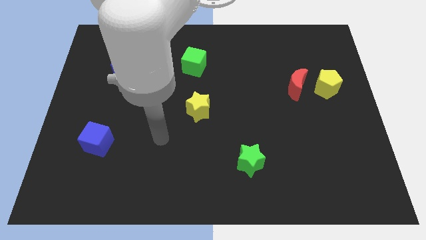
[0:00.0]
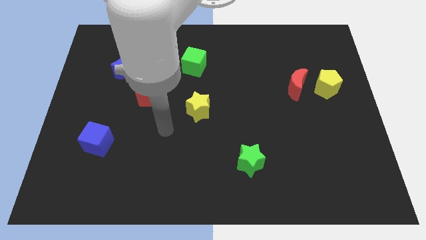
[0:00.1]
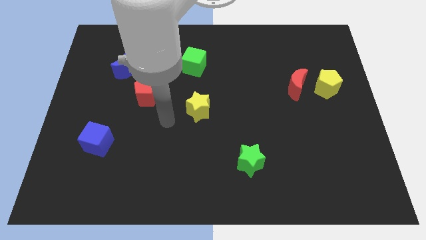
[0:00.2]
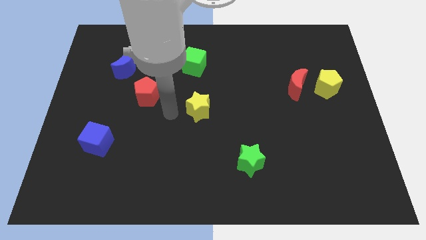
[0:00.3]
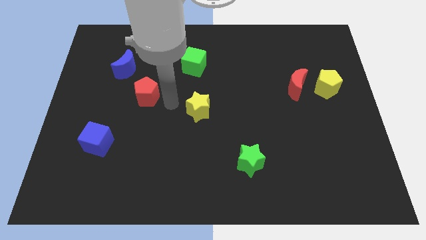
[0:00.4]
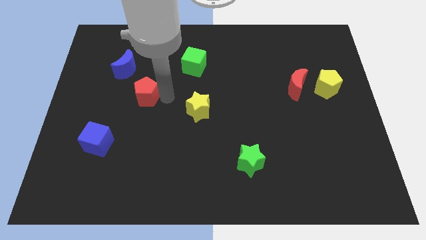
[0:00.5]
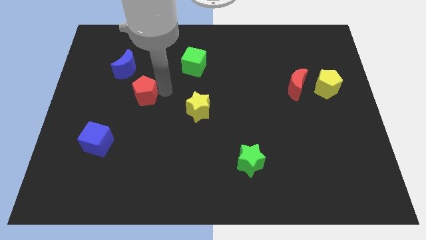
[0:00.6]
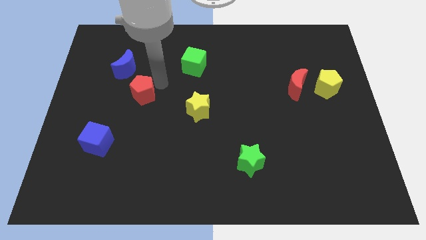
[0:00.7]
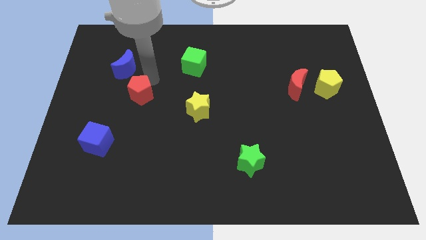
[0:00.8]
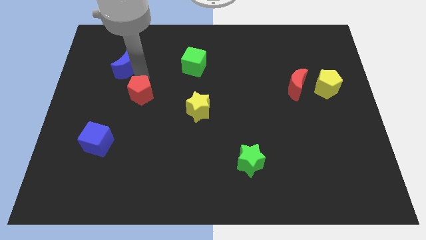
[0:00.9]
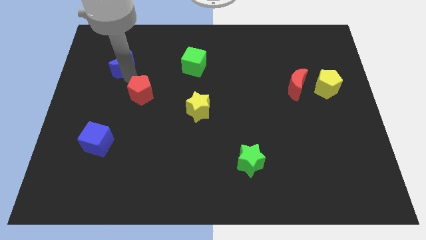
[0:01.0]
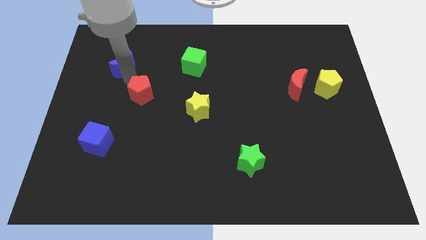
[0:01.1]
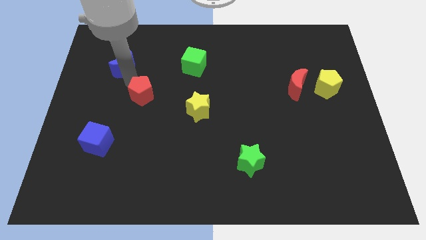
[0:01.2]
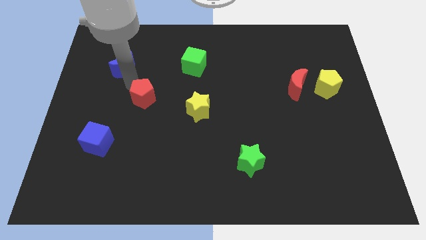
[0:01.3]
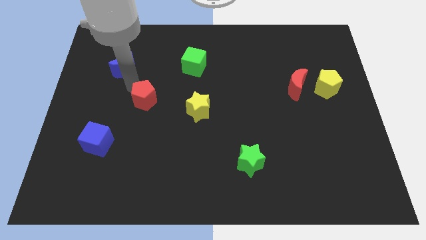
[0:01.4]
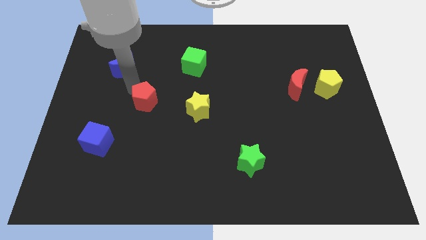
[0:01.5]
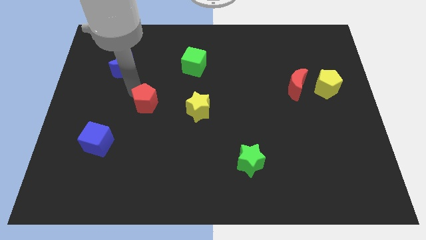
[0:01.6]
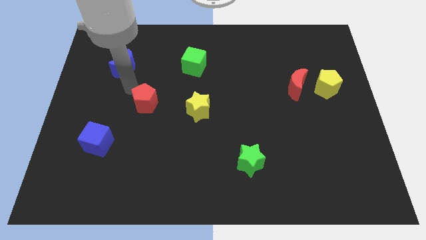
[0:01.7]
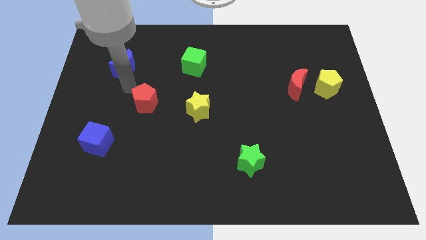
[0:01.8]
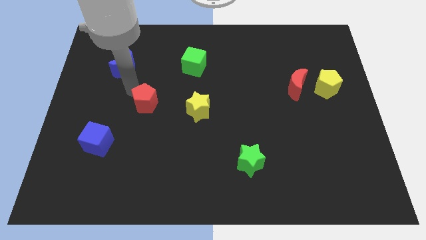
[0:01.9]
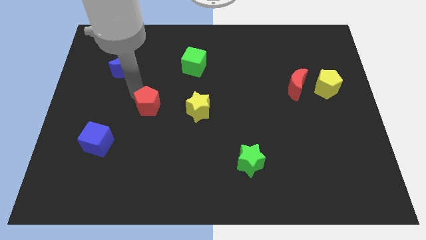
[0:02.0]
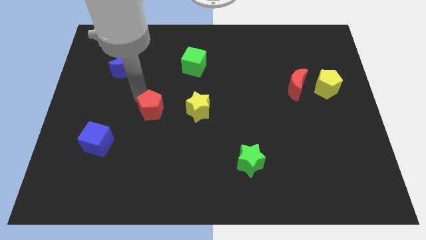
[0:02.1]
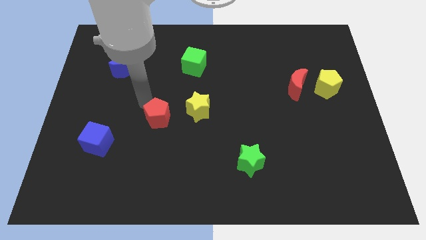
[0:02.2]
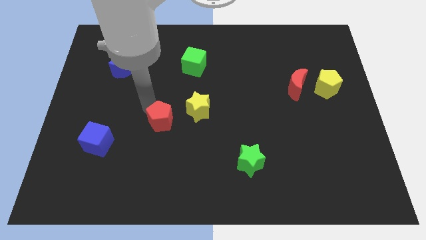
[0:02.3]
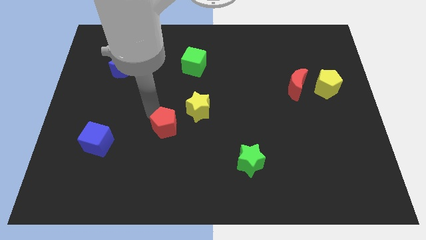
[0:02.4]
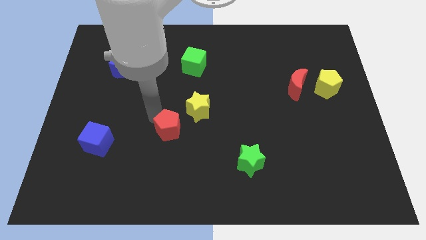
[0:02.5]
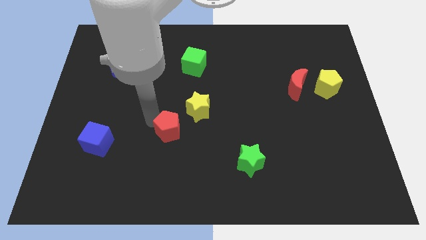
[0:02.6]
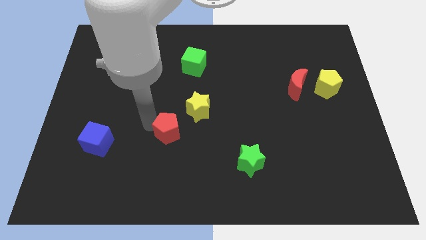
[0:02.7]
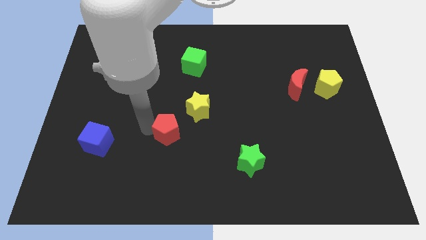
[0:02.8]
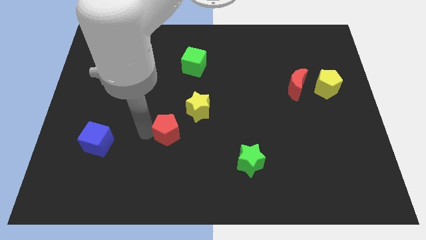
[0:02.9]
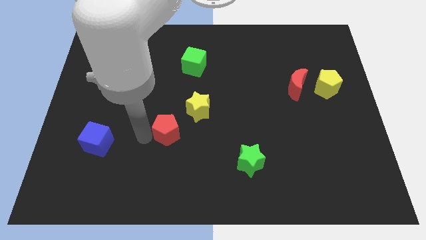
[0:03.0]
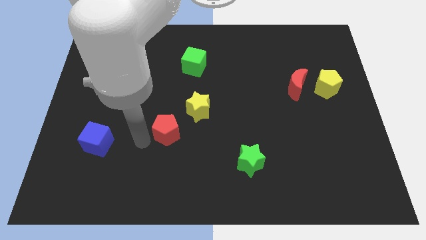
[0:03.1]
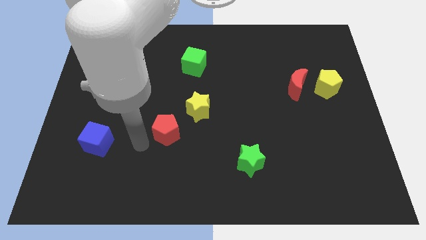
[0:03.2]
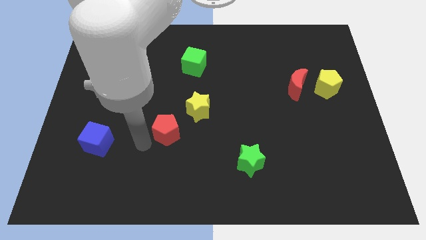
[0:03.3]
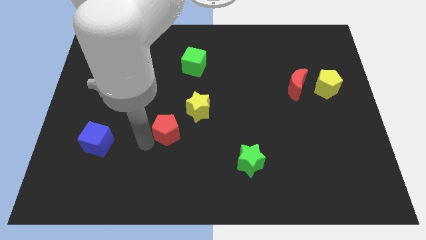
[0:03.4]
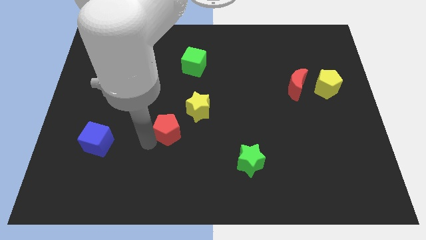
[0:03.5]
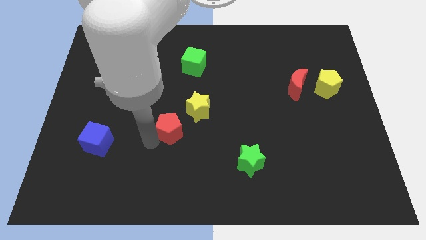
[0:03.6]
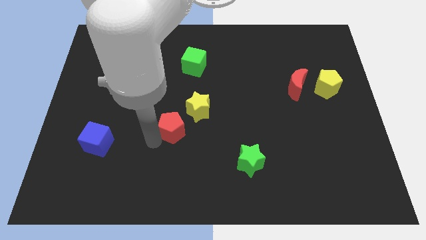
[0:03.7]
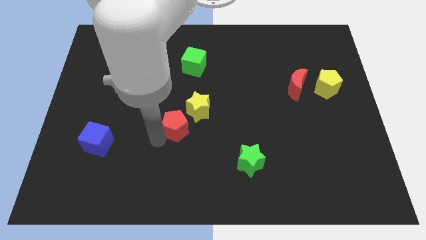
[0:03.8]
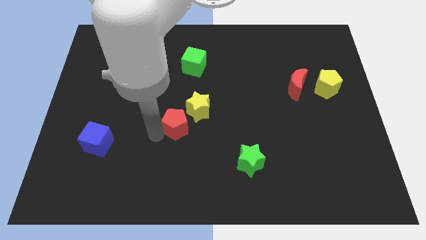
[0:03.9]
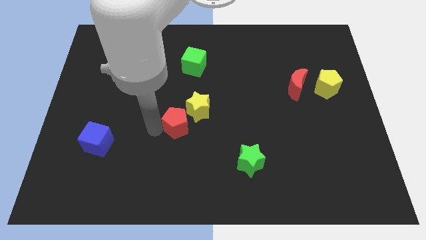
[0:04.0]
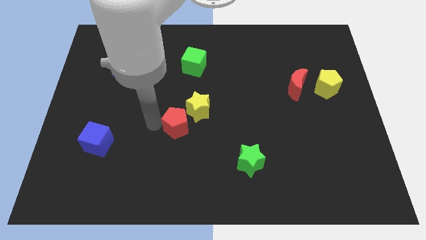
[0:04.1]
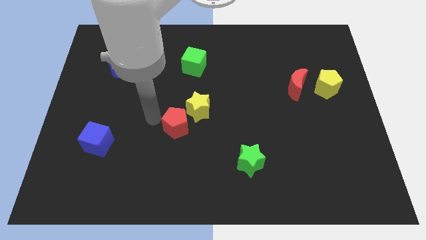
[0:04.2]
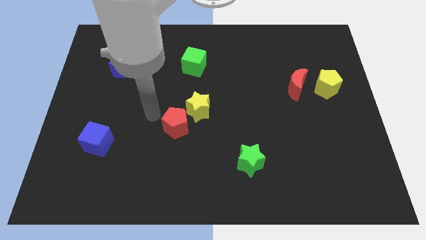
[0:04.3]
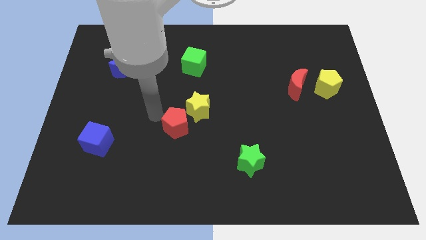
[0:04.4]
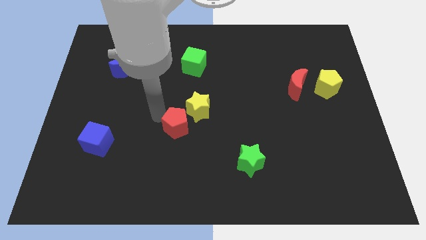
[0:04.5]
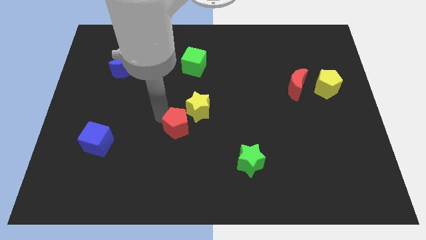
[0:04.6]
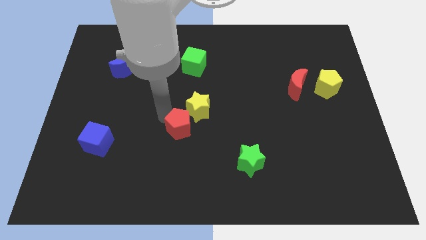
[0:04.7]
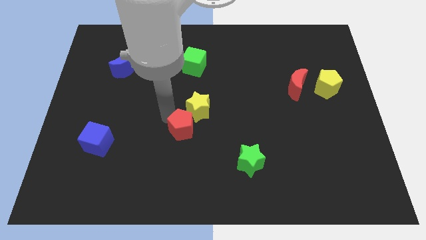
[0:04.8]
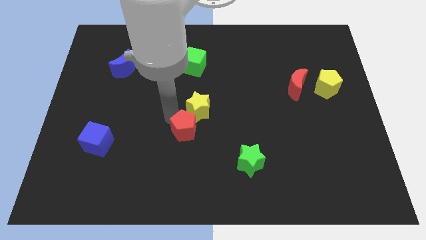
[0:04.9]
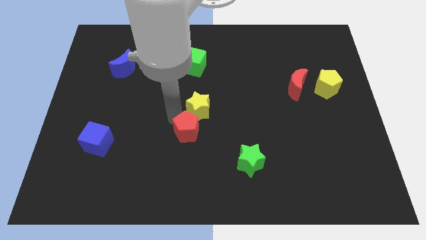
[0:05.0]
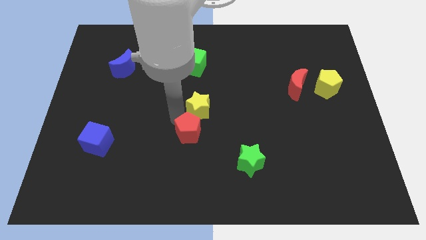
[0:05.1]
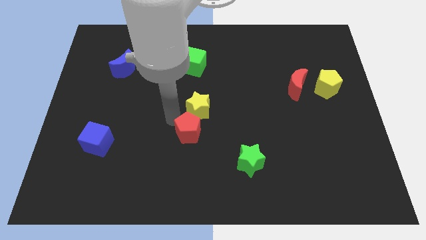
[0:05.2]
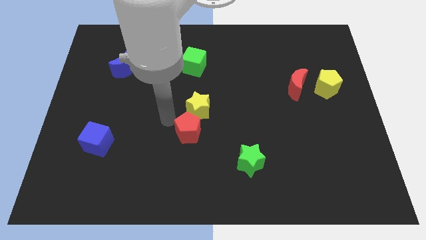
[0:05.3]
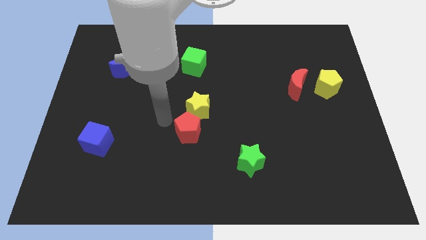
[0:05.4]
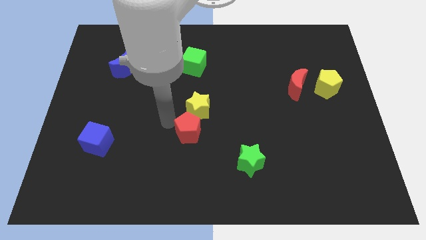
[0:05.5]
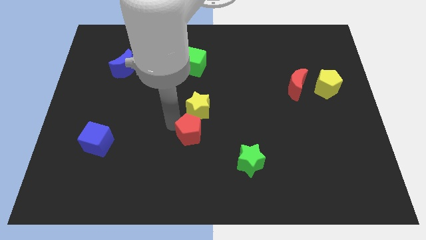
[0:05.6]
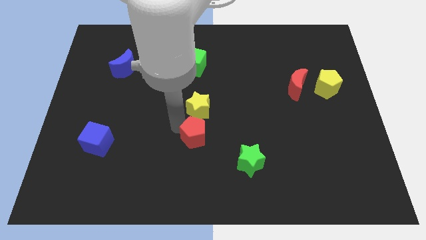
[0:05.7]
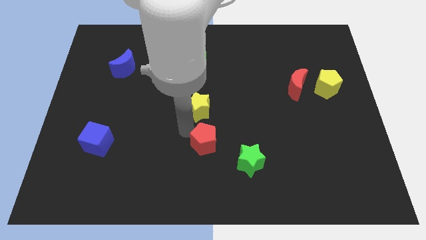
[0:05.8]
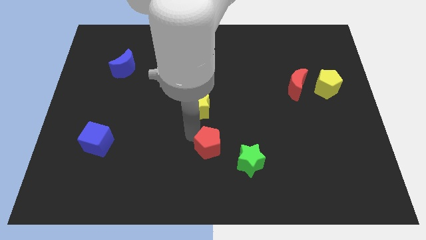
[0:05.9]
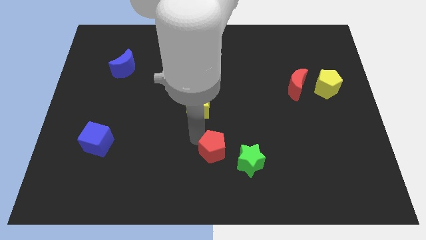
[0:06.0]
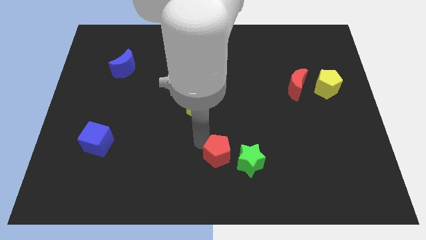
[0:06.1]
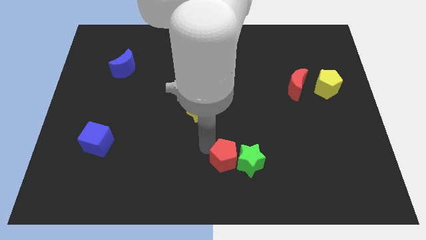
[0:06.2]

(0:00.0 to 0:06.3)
put the red pentagon to the green star

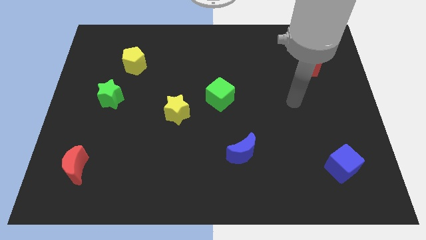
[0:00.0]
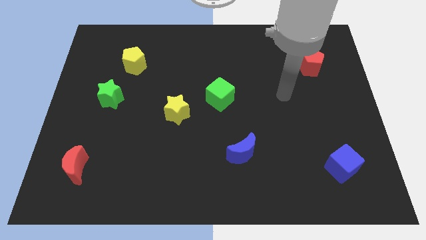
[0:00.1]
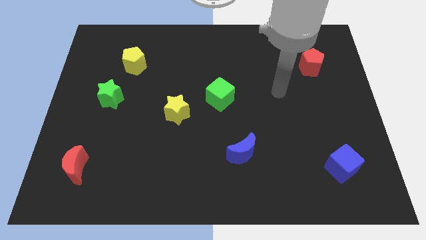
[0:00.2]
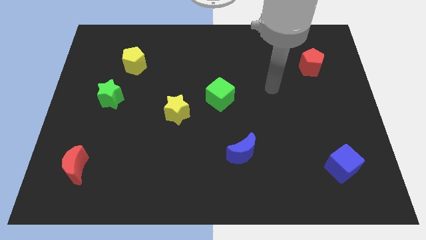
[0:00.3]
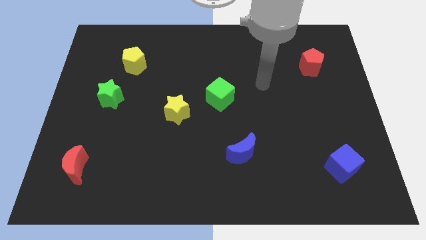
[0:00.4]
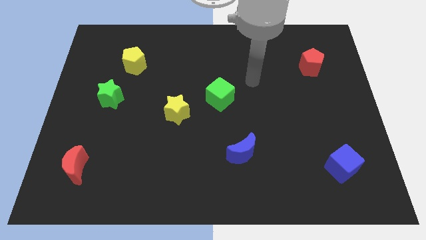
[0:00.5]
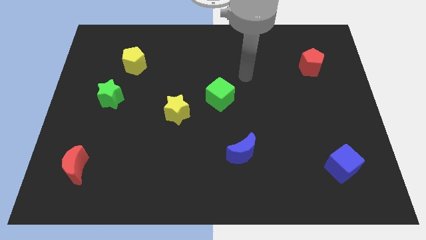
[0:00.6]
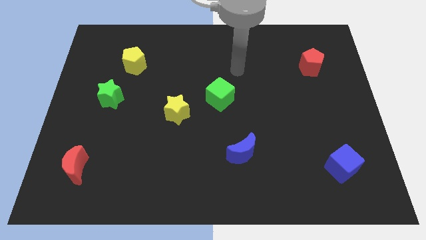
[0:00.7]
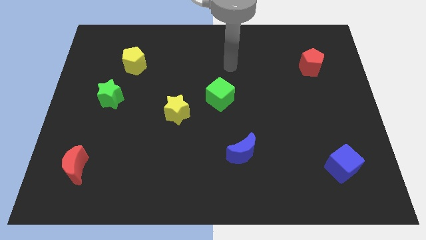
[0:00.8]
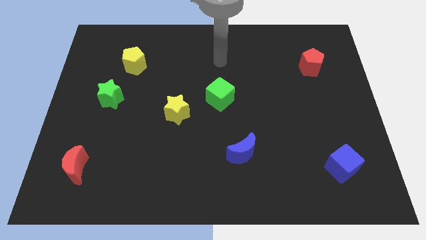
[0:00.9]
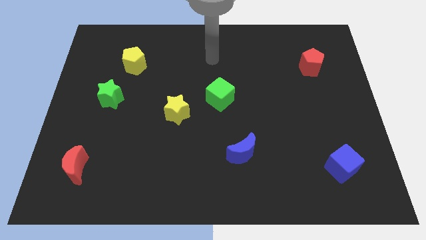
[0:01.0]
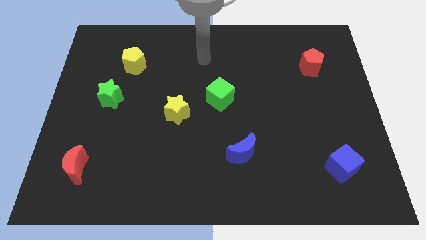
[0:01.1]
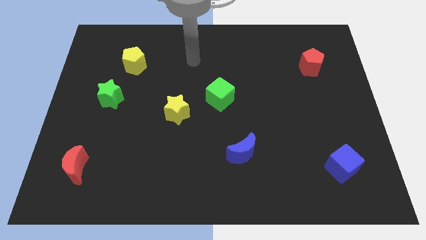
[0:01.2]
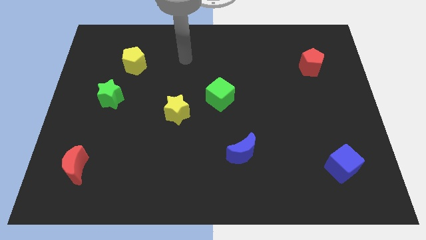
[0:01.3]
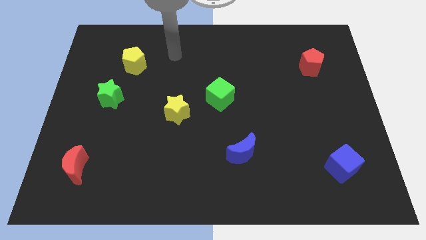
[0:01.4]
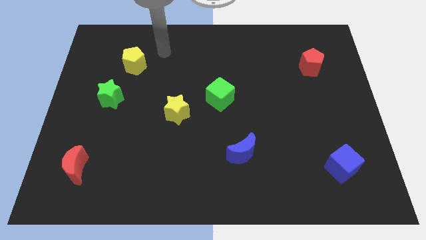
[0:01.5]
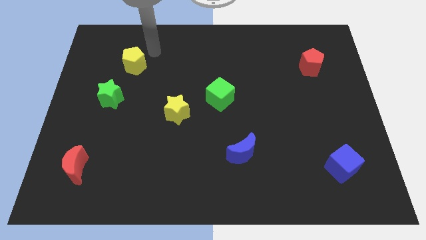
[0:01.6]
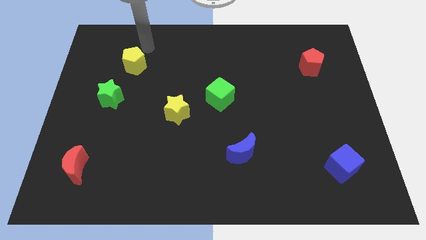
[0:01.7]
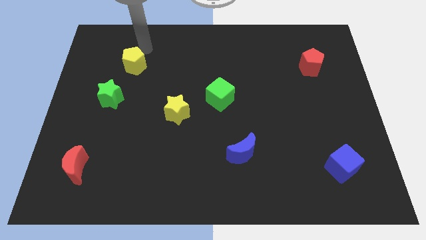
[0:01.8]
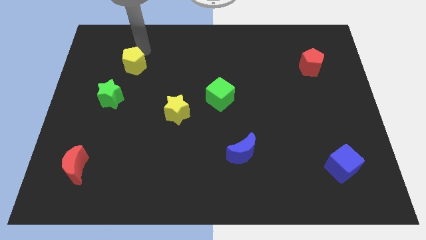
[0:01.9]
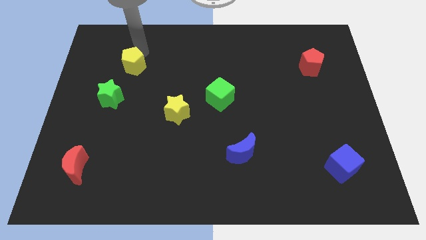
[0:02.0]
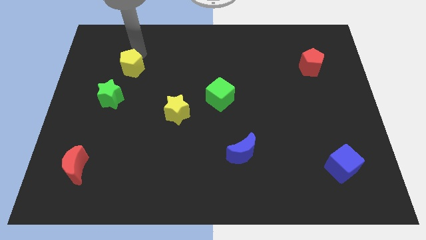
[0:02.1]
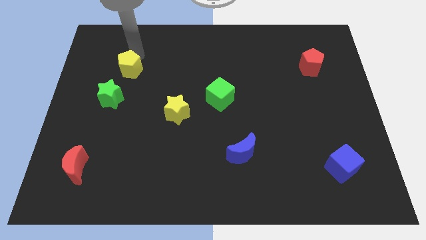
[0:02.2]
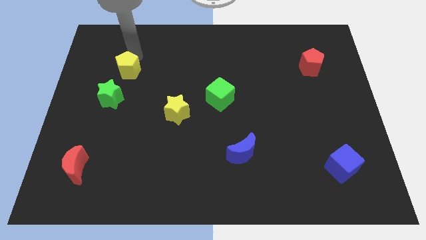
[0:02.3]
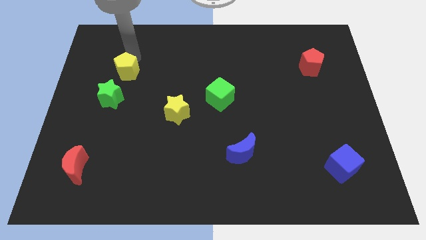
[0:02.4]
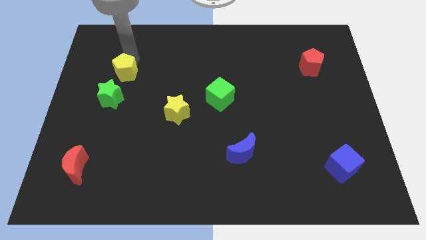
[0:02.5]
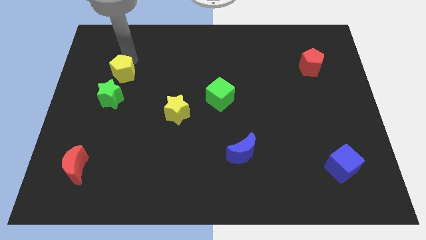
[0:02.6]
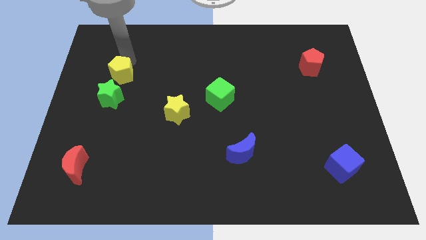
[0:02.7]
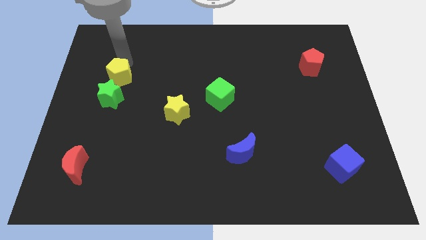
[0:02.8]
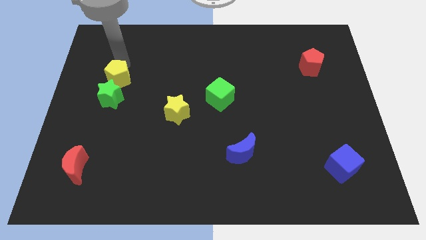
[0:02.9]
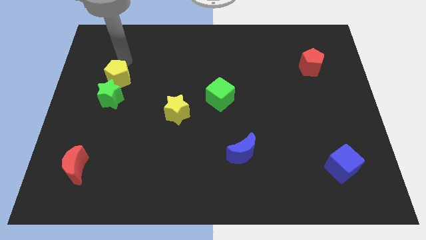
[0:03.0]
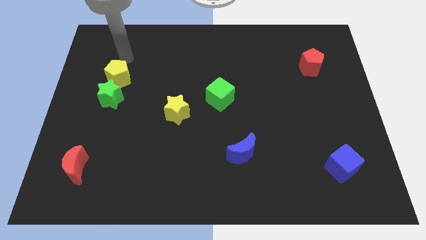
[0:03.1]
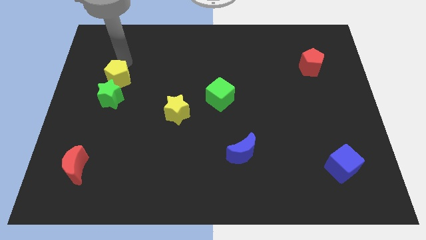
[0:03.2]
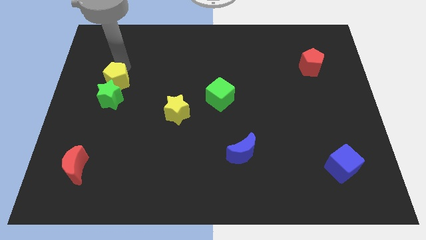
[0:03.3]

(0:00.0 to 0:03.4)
push the yellow pentagon next to the green star
